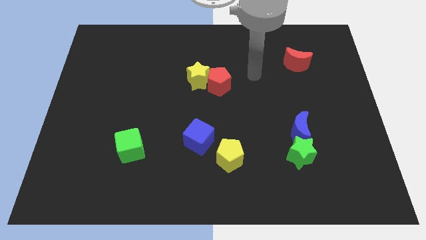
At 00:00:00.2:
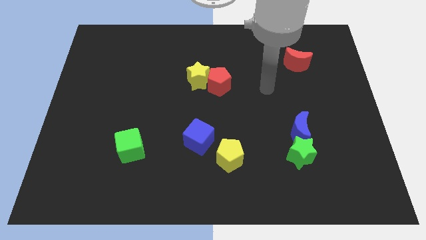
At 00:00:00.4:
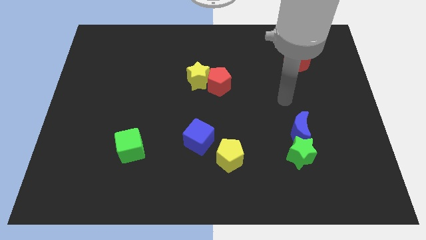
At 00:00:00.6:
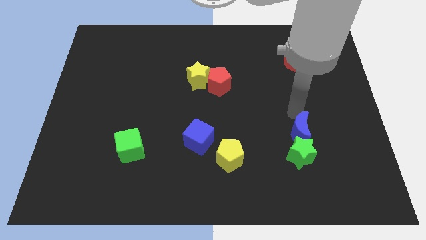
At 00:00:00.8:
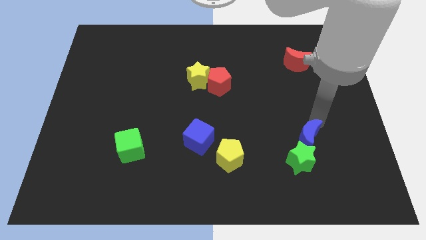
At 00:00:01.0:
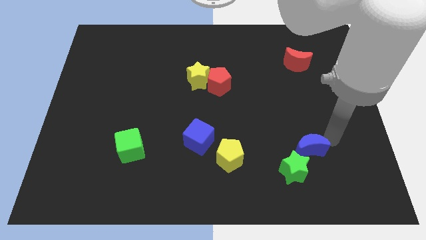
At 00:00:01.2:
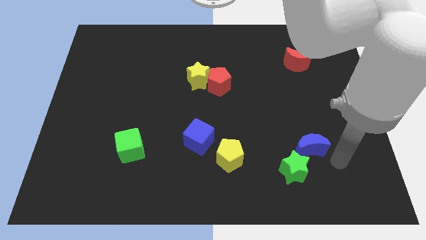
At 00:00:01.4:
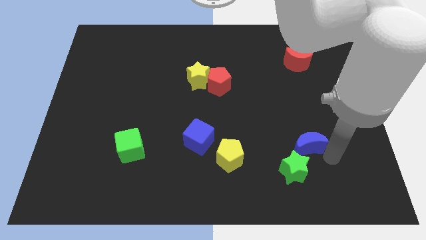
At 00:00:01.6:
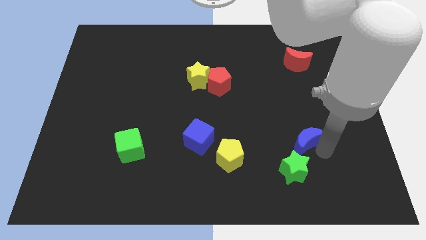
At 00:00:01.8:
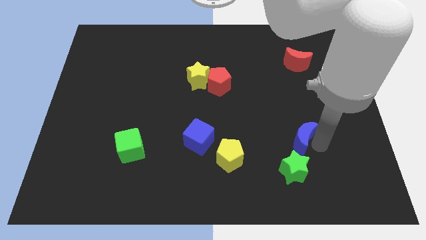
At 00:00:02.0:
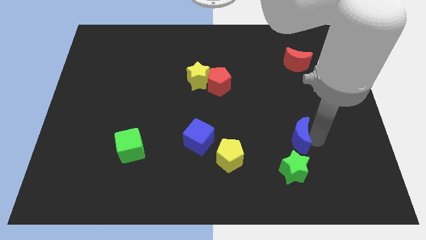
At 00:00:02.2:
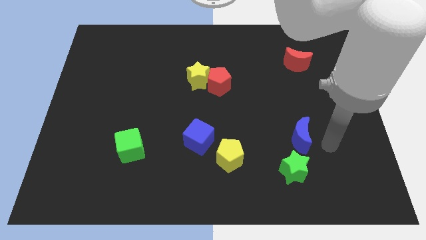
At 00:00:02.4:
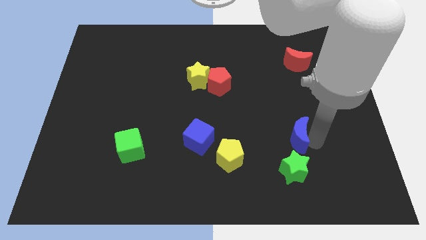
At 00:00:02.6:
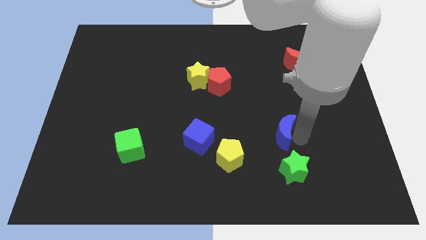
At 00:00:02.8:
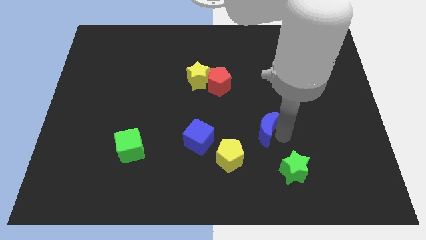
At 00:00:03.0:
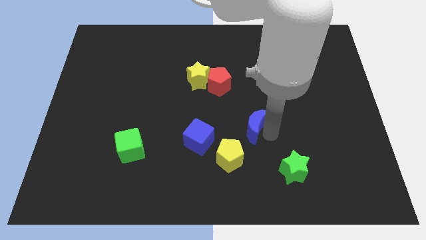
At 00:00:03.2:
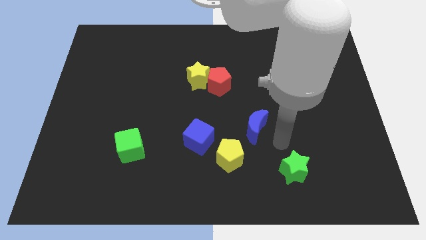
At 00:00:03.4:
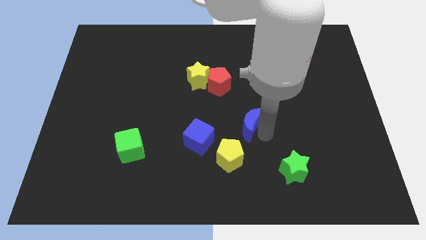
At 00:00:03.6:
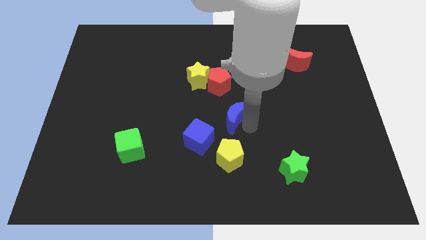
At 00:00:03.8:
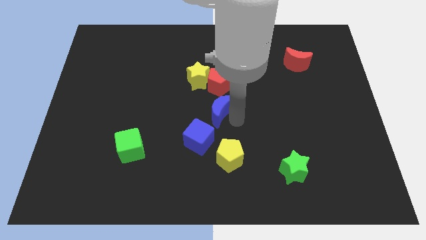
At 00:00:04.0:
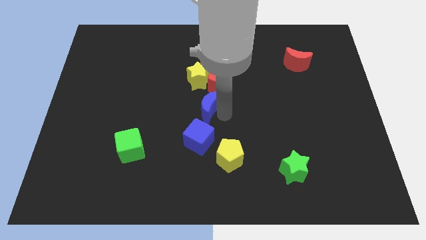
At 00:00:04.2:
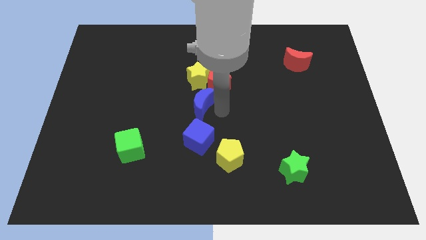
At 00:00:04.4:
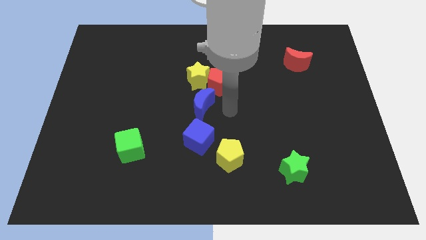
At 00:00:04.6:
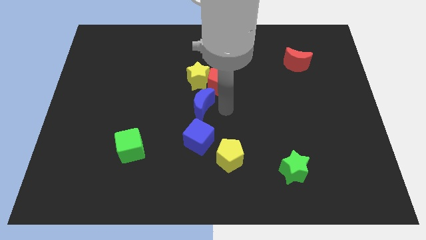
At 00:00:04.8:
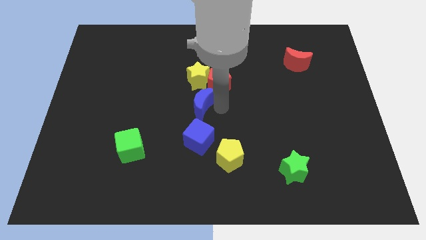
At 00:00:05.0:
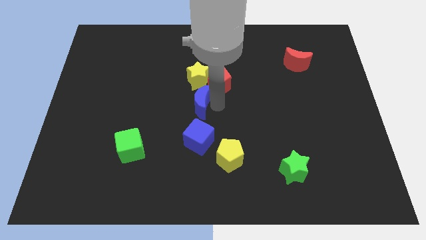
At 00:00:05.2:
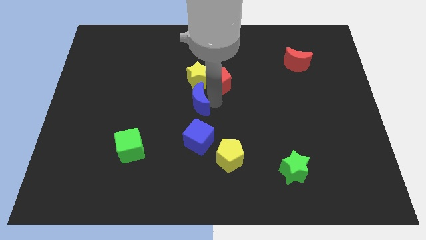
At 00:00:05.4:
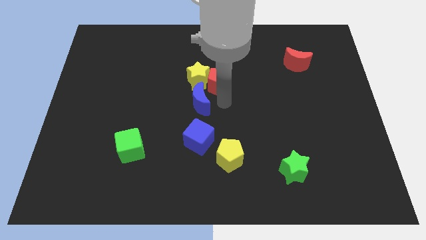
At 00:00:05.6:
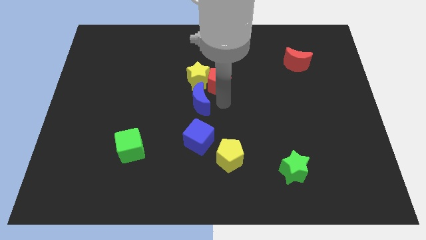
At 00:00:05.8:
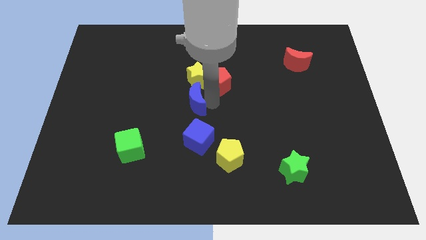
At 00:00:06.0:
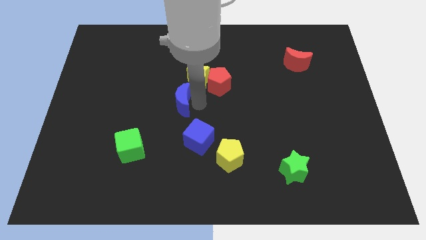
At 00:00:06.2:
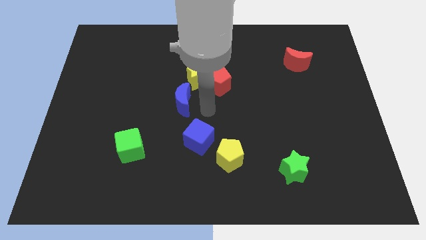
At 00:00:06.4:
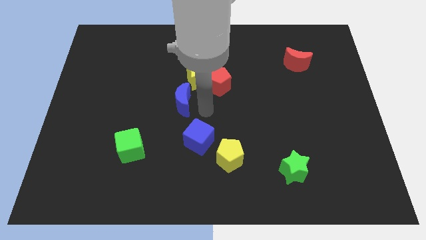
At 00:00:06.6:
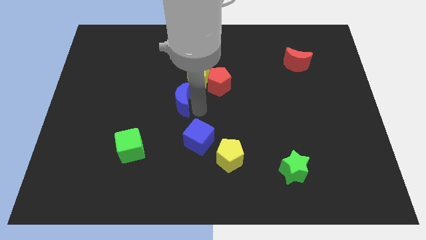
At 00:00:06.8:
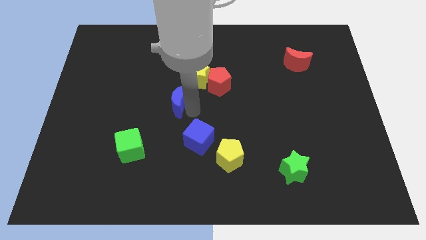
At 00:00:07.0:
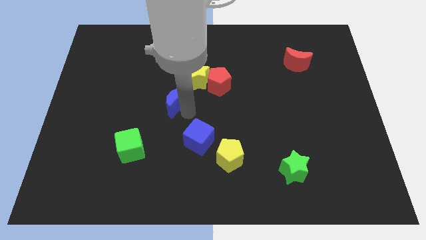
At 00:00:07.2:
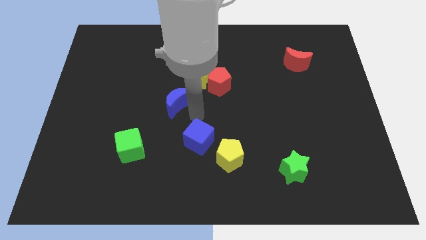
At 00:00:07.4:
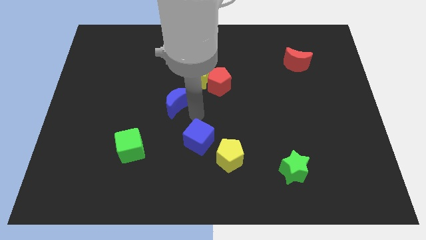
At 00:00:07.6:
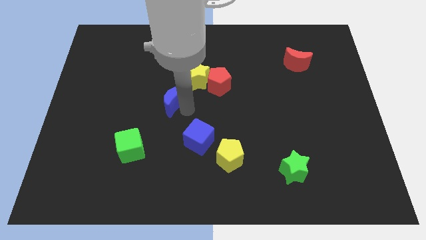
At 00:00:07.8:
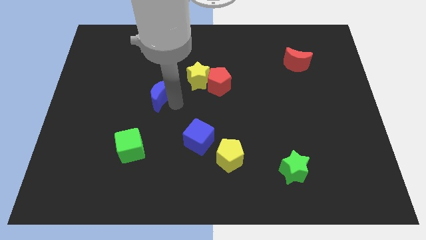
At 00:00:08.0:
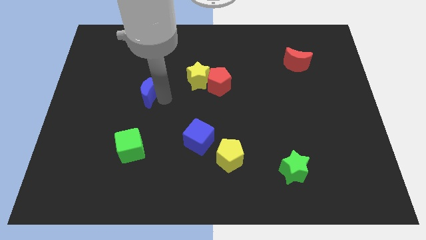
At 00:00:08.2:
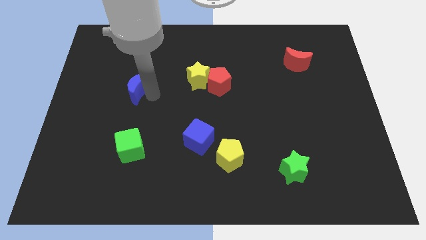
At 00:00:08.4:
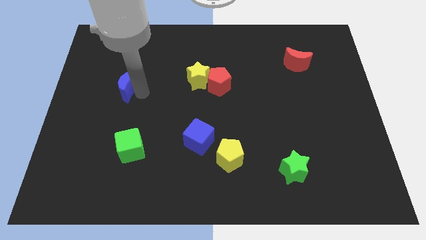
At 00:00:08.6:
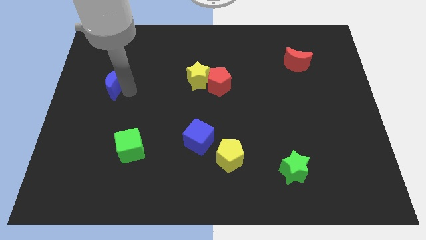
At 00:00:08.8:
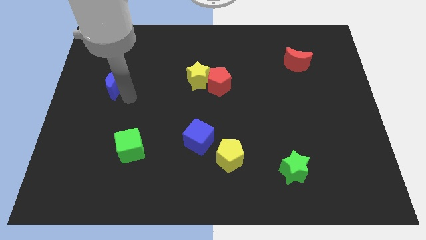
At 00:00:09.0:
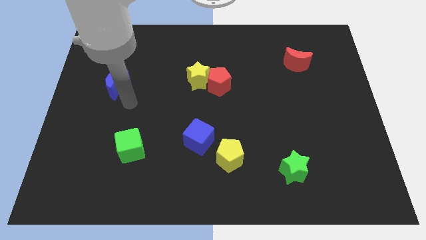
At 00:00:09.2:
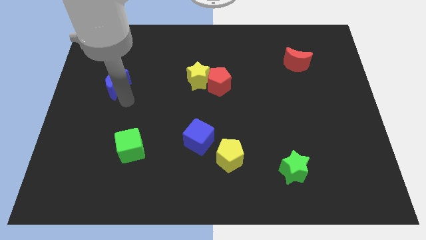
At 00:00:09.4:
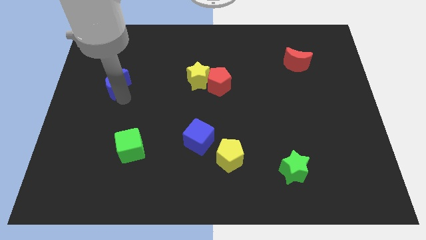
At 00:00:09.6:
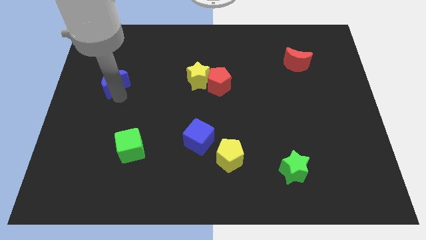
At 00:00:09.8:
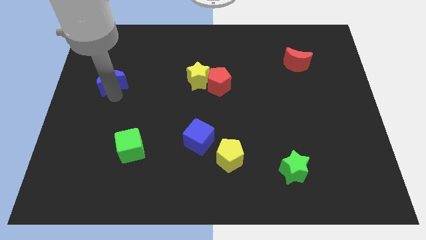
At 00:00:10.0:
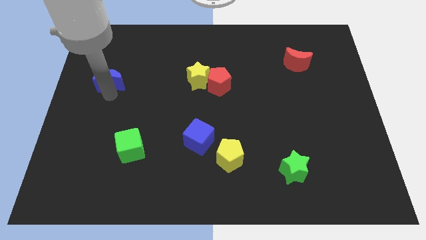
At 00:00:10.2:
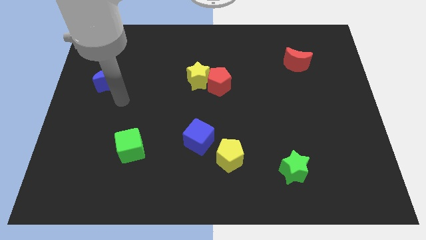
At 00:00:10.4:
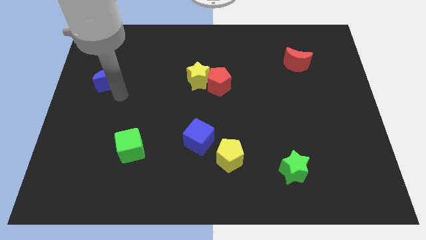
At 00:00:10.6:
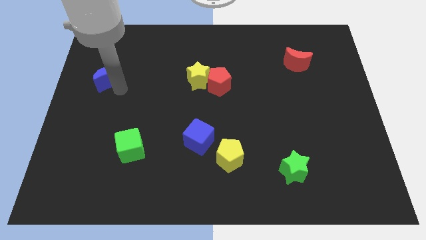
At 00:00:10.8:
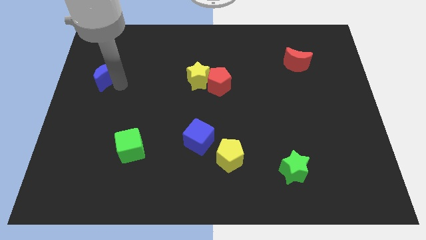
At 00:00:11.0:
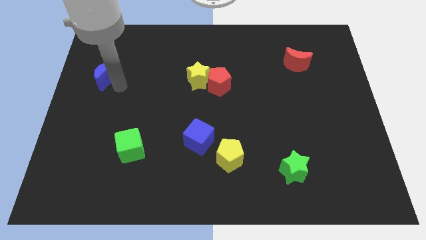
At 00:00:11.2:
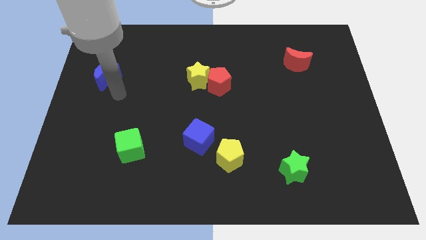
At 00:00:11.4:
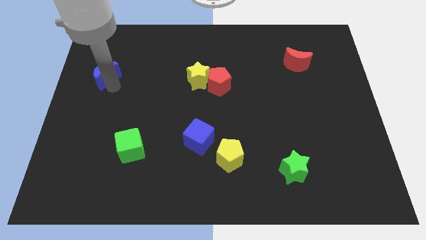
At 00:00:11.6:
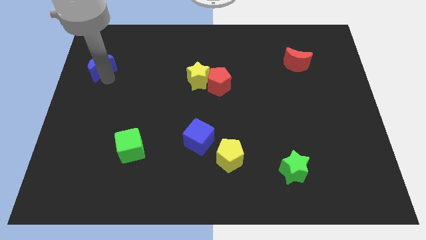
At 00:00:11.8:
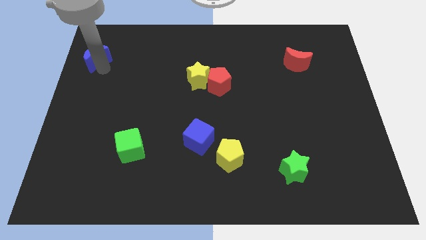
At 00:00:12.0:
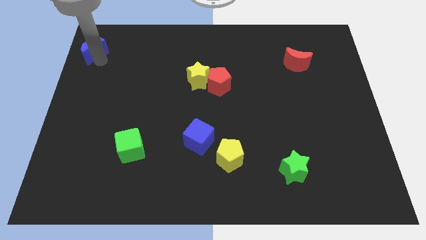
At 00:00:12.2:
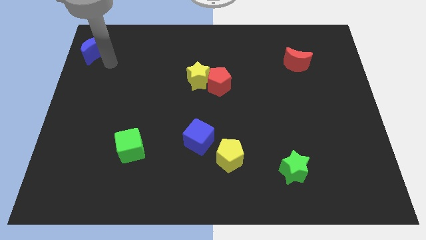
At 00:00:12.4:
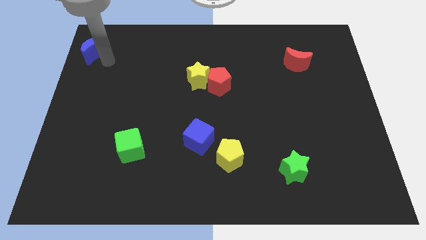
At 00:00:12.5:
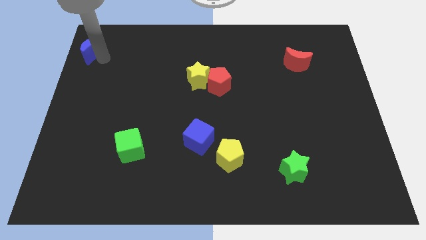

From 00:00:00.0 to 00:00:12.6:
put the blue moon to the top left of the board

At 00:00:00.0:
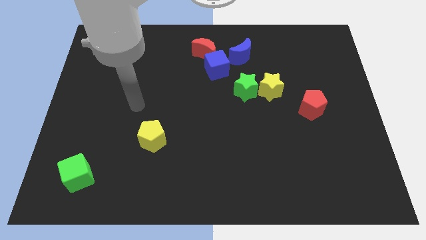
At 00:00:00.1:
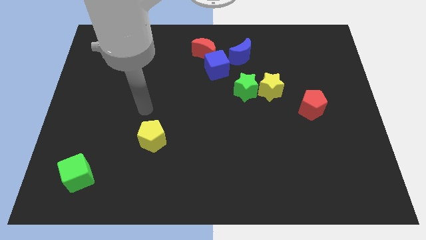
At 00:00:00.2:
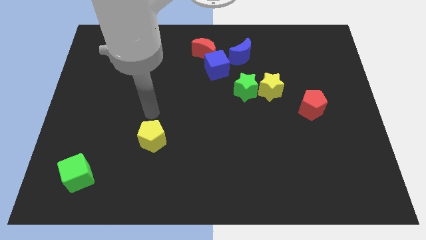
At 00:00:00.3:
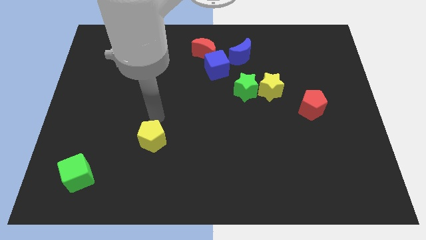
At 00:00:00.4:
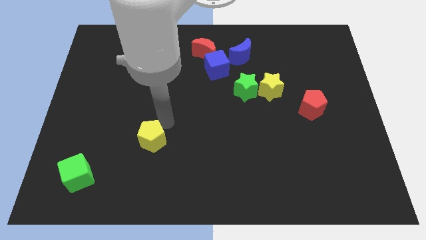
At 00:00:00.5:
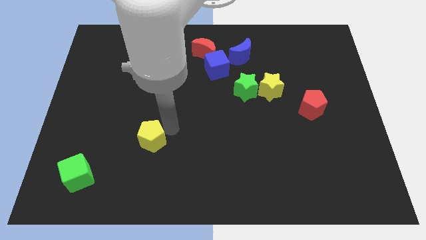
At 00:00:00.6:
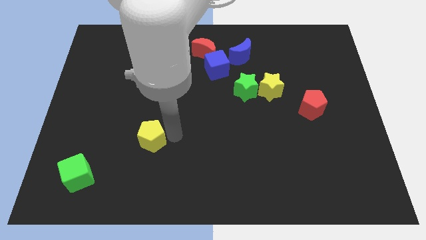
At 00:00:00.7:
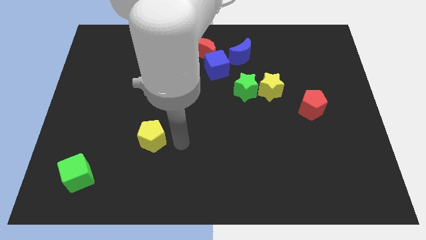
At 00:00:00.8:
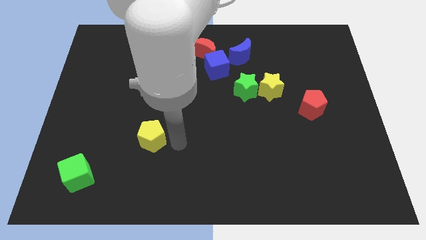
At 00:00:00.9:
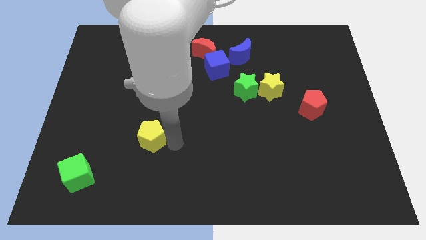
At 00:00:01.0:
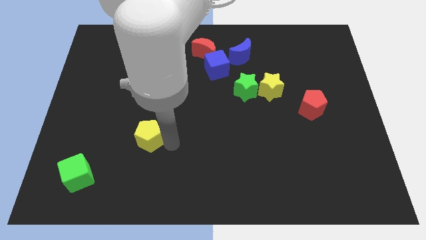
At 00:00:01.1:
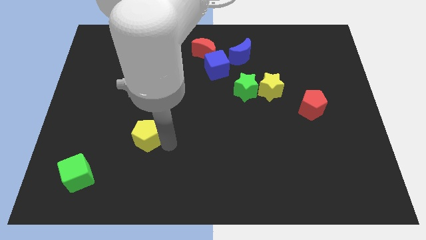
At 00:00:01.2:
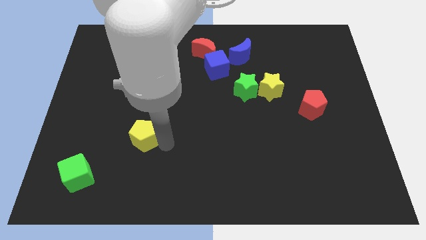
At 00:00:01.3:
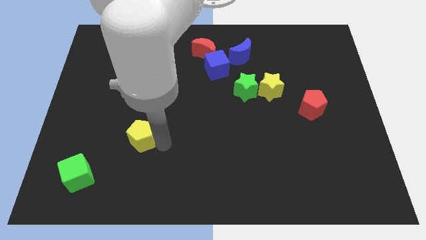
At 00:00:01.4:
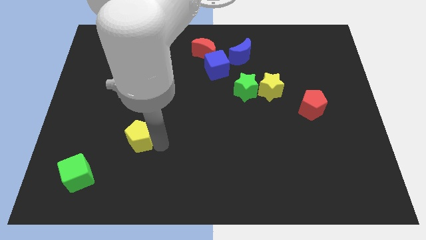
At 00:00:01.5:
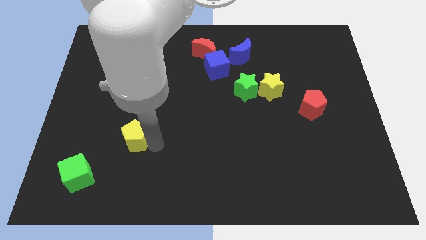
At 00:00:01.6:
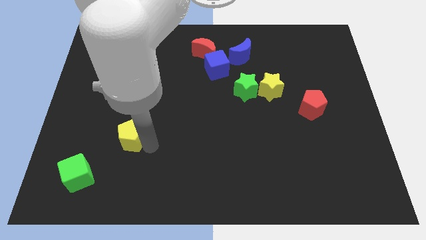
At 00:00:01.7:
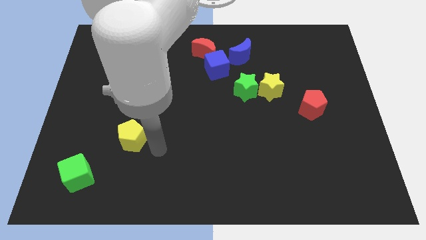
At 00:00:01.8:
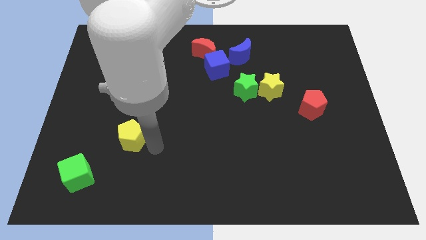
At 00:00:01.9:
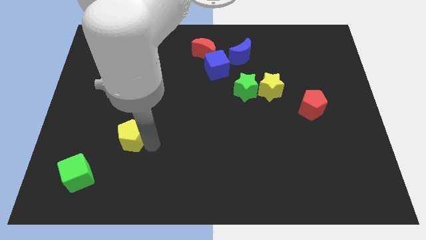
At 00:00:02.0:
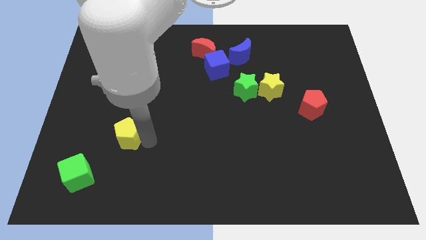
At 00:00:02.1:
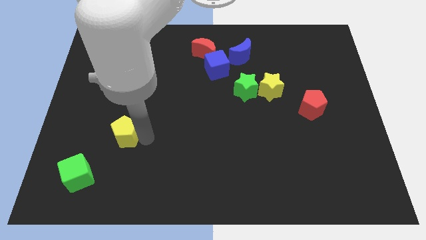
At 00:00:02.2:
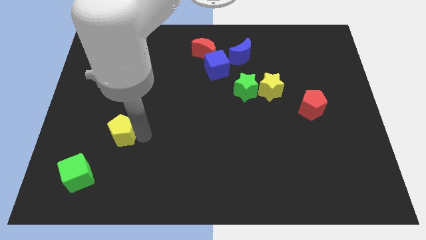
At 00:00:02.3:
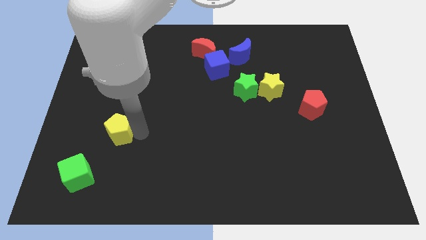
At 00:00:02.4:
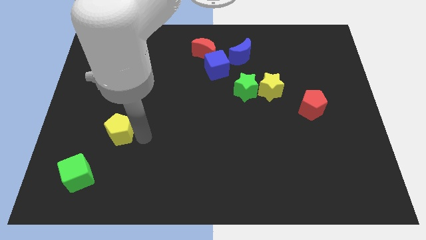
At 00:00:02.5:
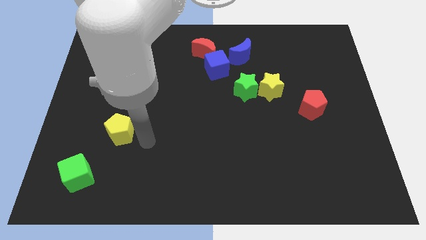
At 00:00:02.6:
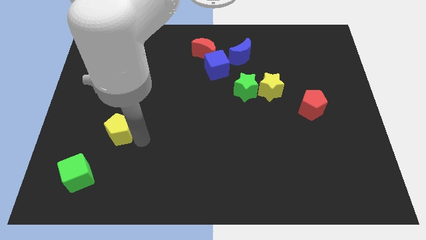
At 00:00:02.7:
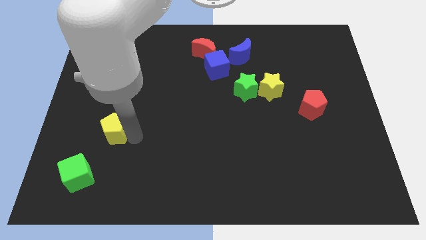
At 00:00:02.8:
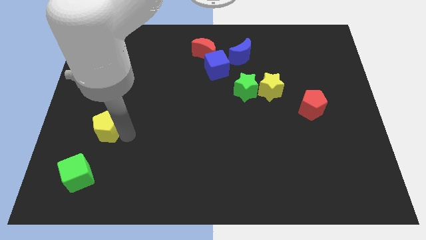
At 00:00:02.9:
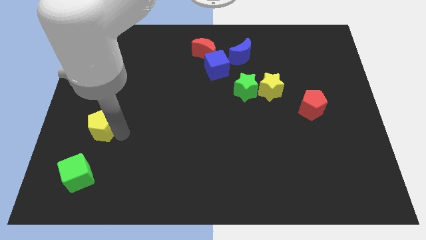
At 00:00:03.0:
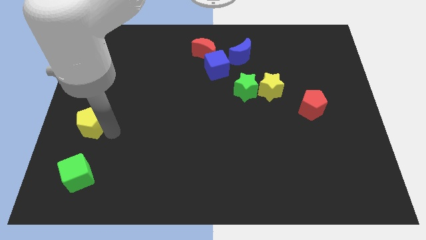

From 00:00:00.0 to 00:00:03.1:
slide the yellow pentagon to the center left
